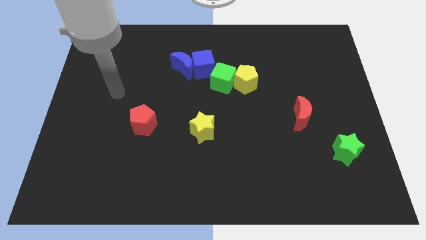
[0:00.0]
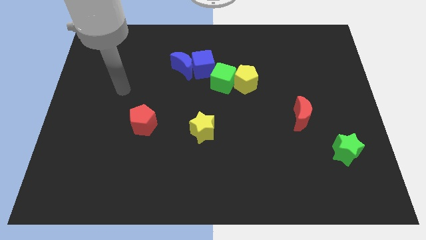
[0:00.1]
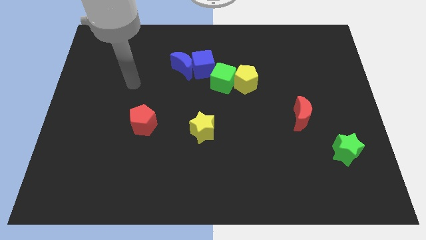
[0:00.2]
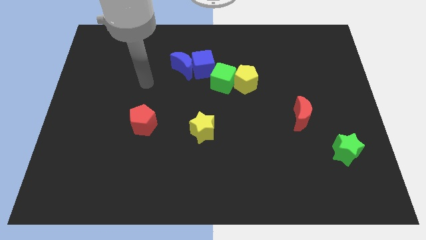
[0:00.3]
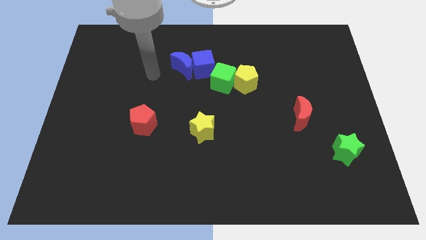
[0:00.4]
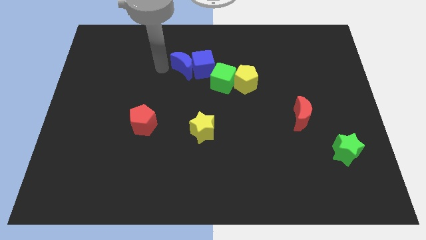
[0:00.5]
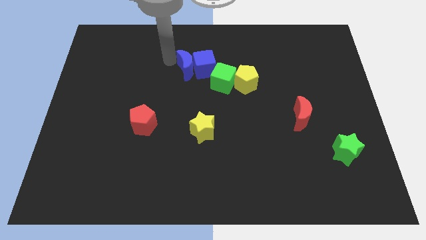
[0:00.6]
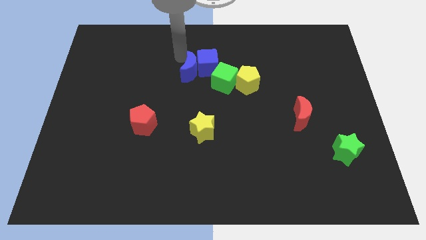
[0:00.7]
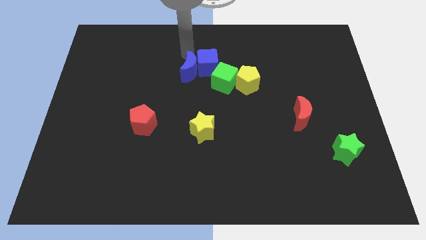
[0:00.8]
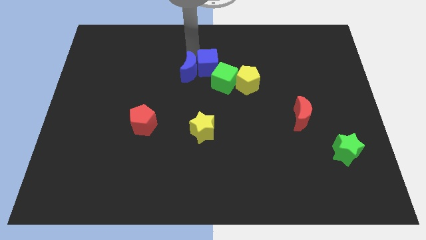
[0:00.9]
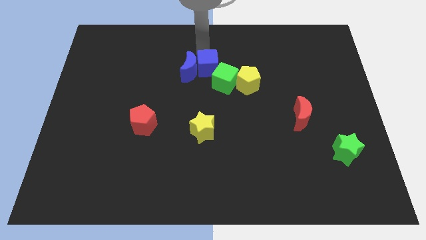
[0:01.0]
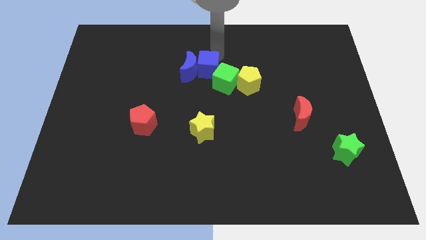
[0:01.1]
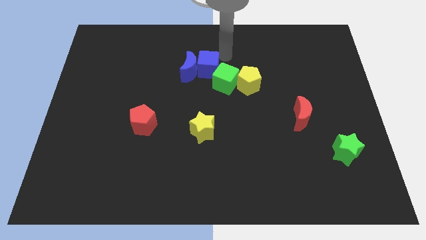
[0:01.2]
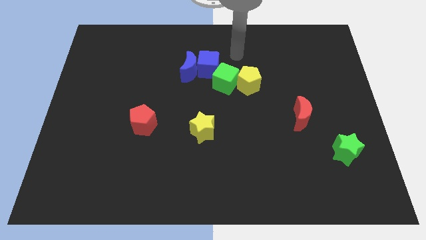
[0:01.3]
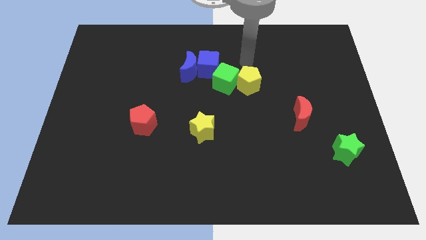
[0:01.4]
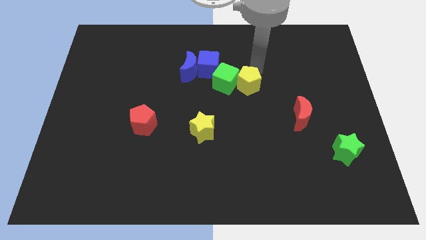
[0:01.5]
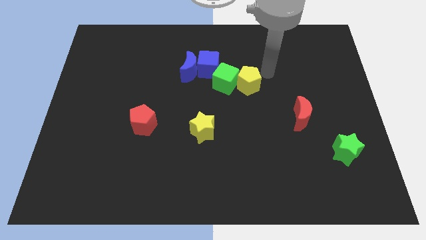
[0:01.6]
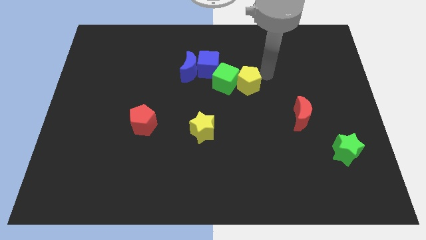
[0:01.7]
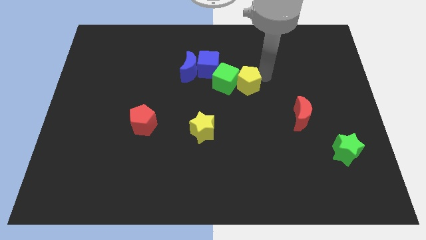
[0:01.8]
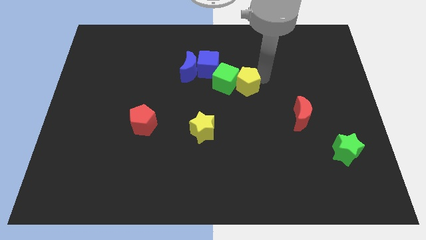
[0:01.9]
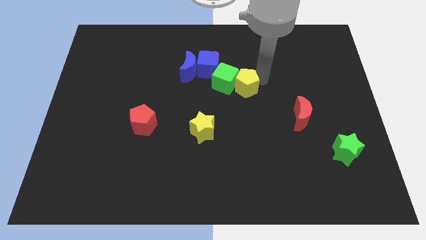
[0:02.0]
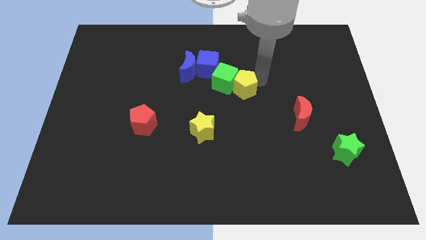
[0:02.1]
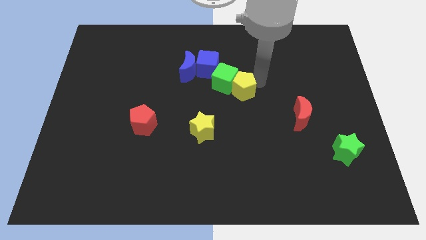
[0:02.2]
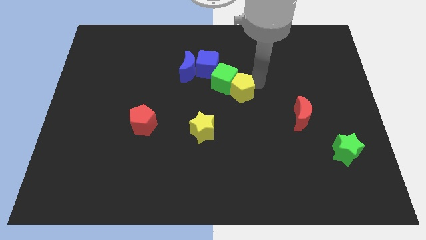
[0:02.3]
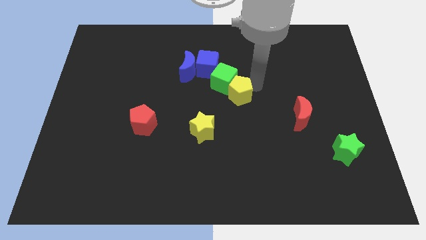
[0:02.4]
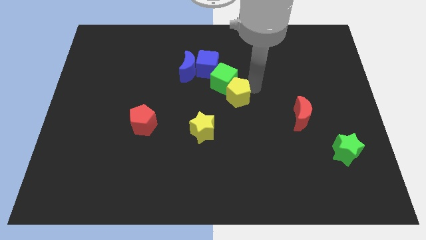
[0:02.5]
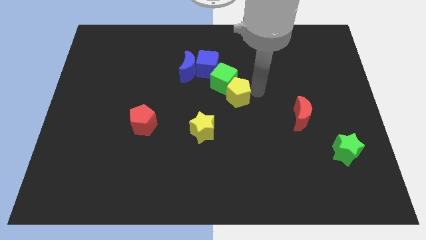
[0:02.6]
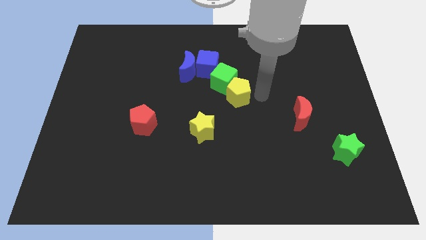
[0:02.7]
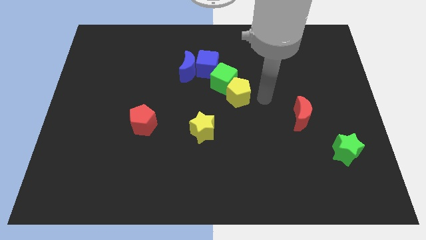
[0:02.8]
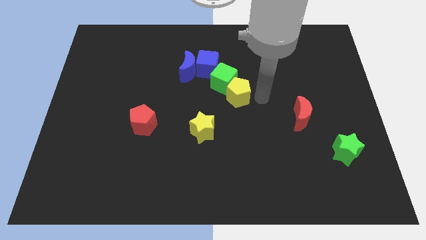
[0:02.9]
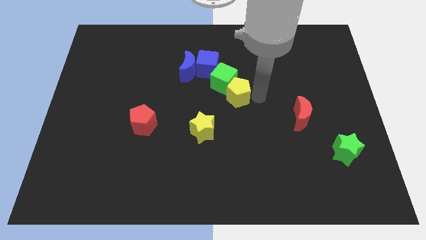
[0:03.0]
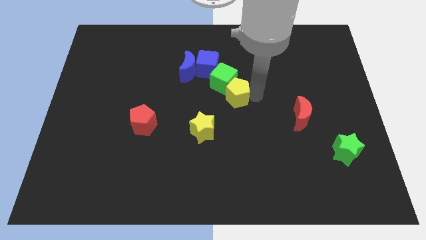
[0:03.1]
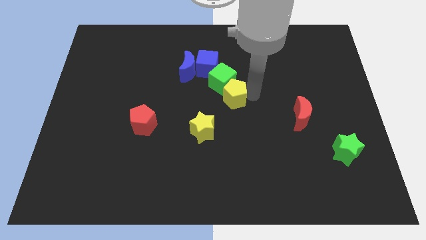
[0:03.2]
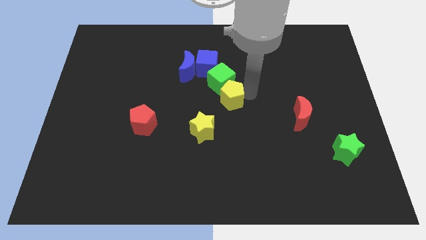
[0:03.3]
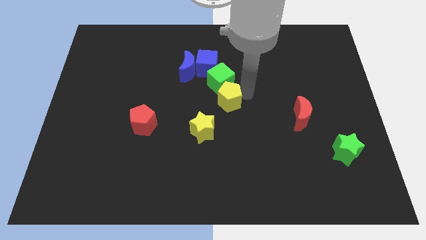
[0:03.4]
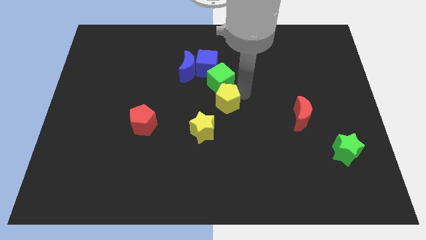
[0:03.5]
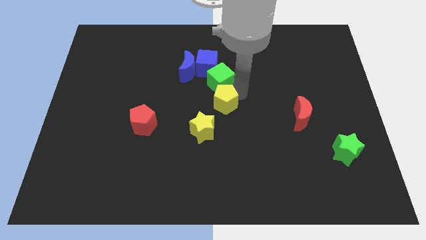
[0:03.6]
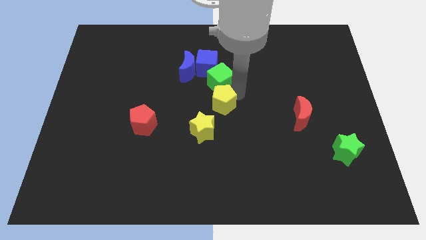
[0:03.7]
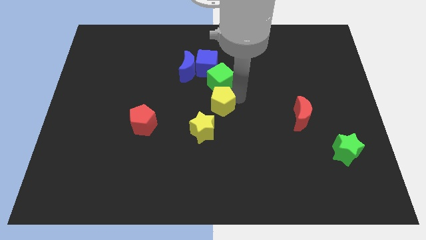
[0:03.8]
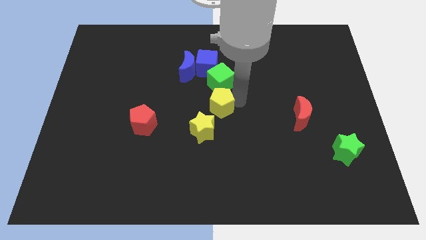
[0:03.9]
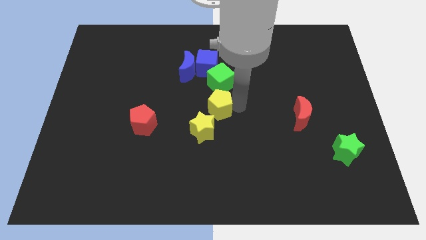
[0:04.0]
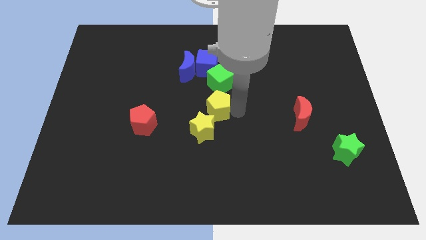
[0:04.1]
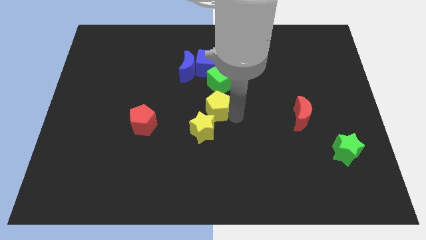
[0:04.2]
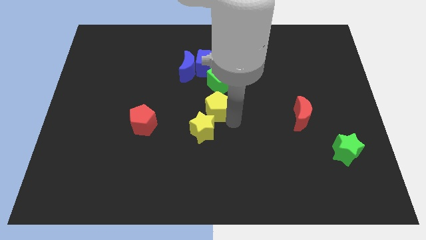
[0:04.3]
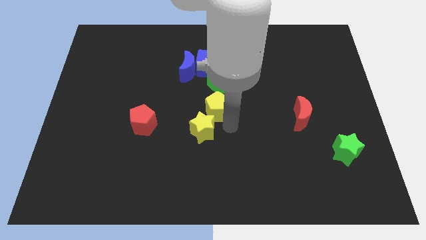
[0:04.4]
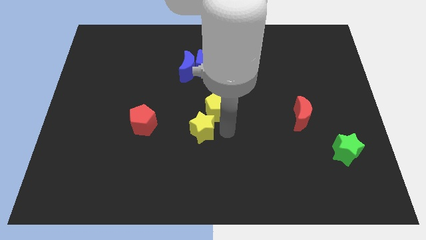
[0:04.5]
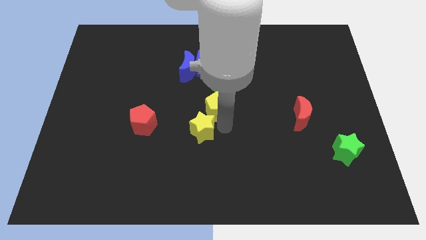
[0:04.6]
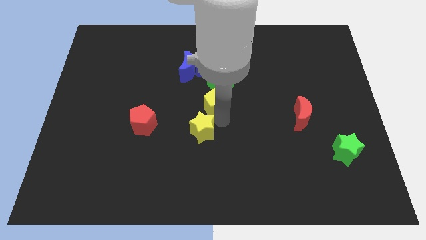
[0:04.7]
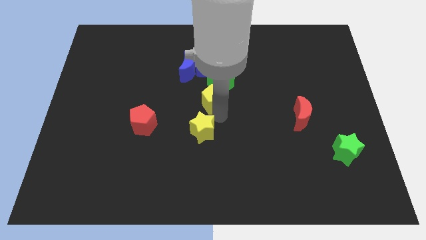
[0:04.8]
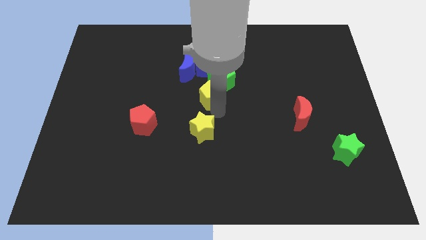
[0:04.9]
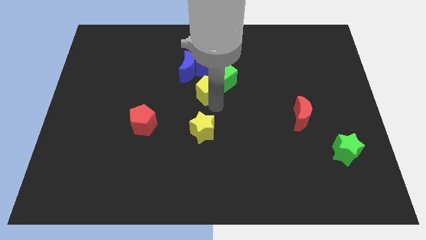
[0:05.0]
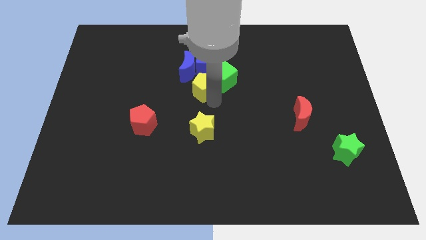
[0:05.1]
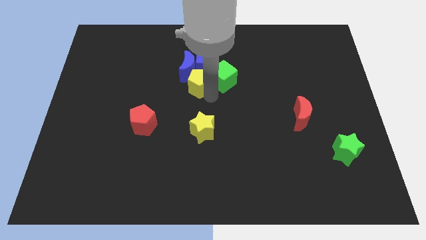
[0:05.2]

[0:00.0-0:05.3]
slide the yellow pentagon to the bottom left of the blue cube

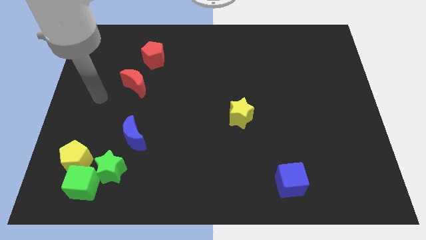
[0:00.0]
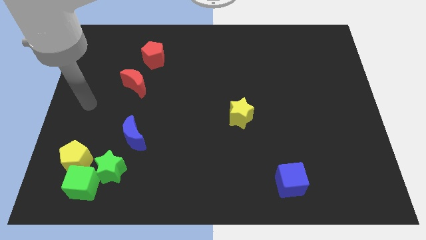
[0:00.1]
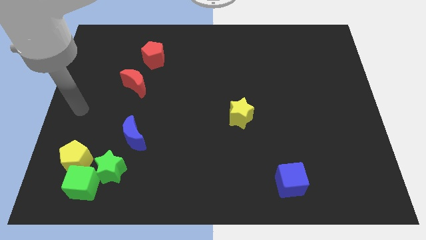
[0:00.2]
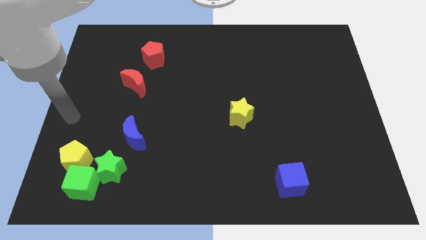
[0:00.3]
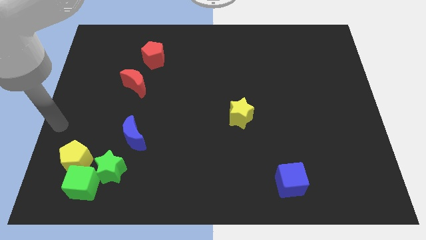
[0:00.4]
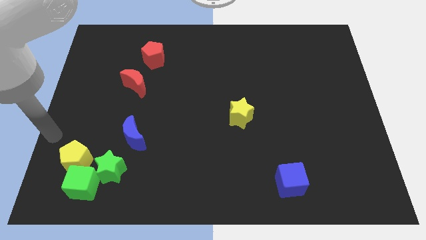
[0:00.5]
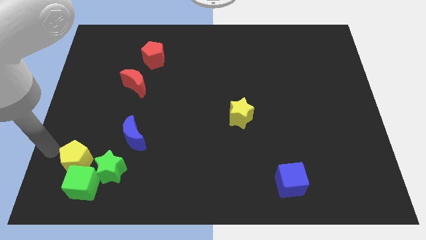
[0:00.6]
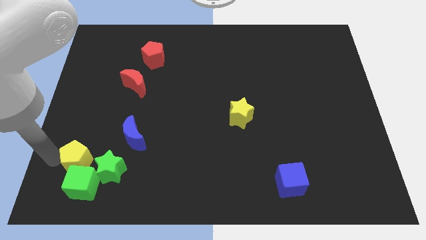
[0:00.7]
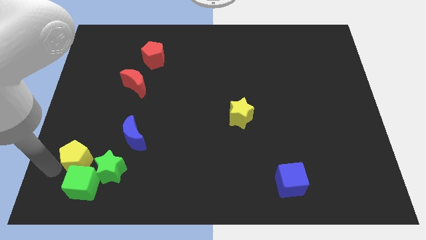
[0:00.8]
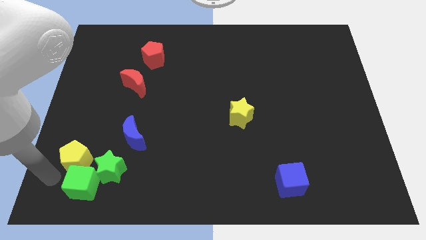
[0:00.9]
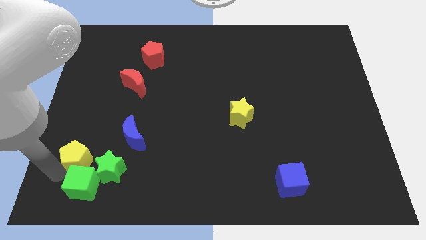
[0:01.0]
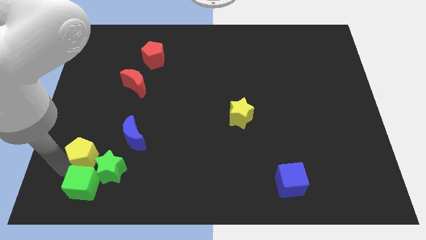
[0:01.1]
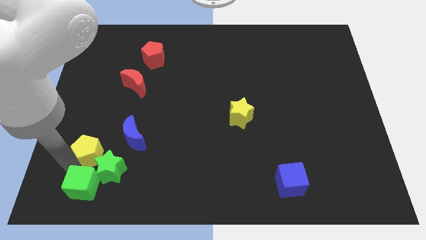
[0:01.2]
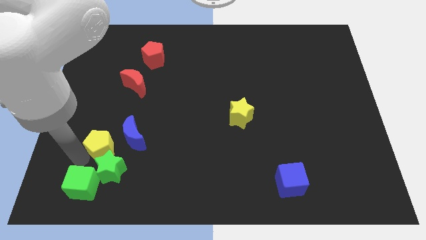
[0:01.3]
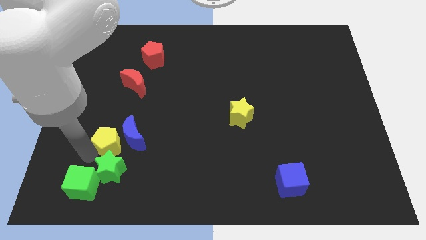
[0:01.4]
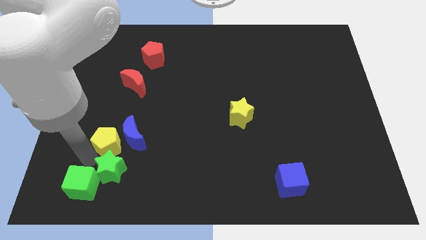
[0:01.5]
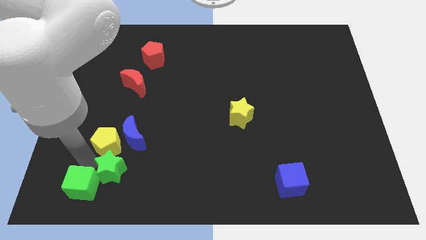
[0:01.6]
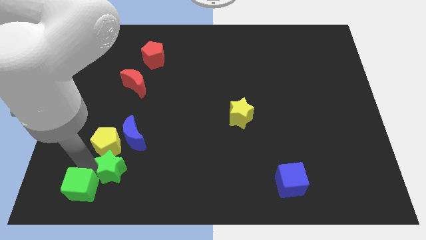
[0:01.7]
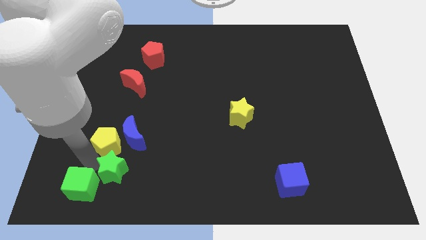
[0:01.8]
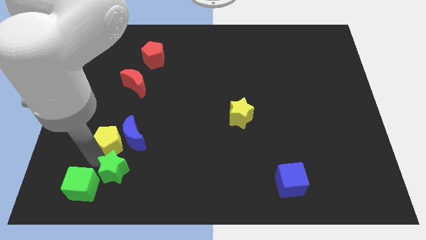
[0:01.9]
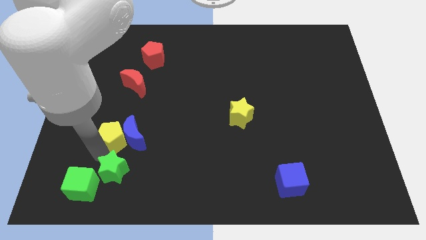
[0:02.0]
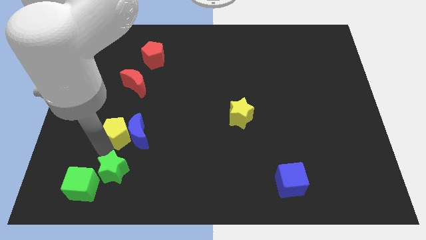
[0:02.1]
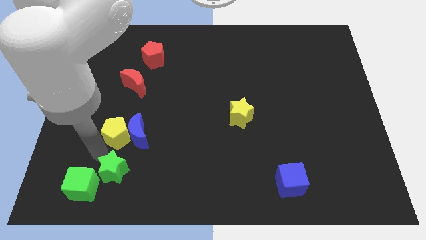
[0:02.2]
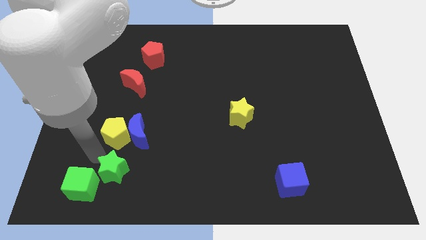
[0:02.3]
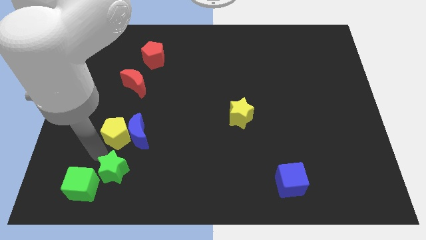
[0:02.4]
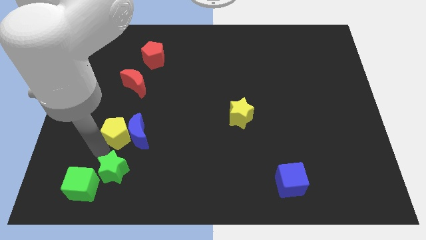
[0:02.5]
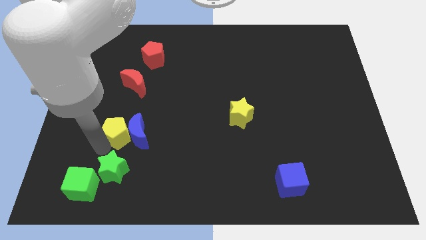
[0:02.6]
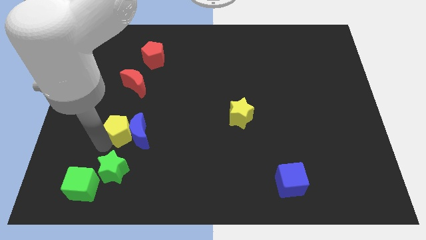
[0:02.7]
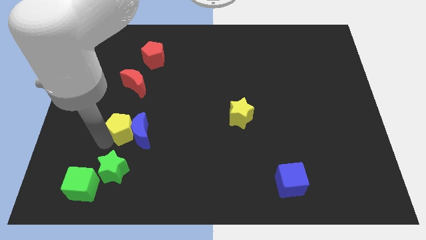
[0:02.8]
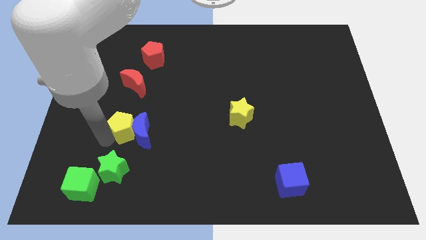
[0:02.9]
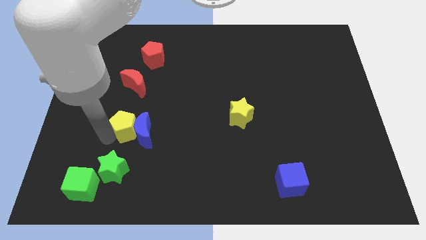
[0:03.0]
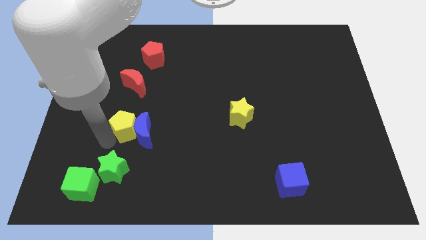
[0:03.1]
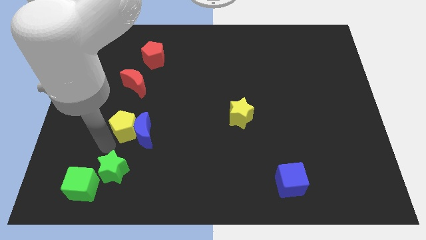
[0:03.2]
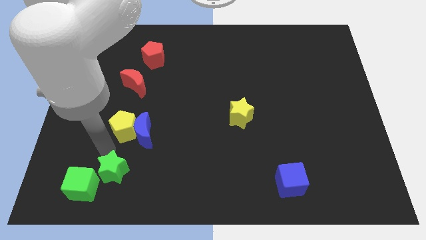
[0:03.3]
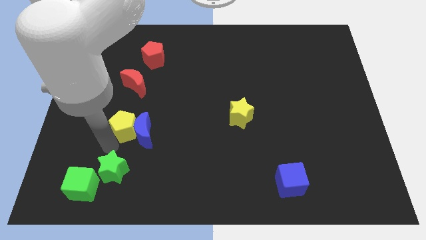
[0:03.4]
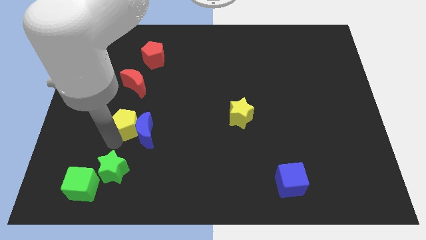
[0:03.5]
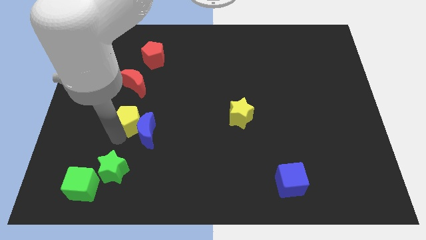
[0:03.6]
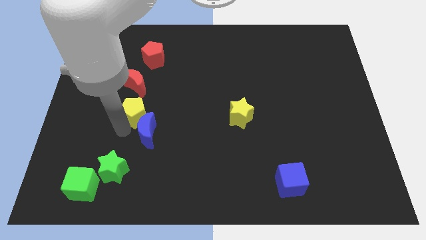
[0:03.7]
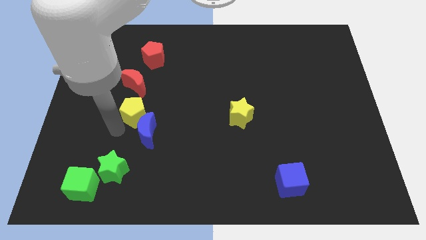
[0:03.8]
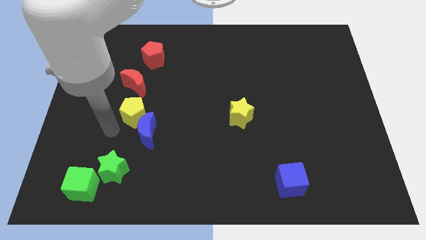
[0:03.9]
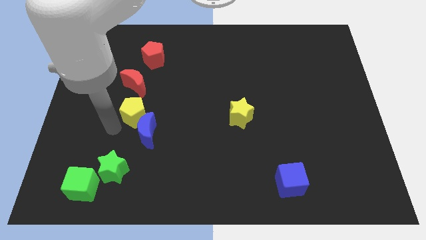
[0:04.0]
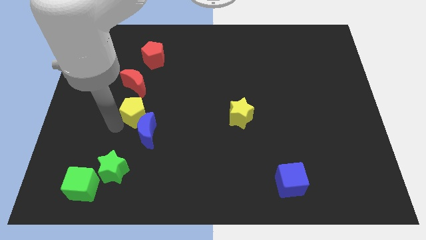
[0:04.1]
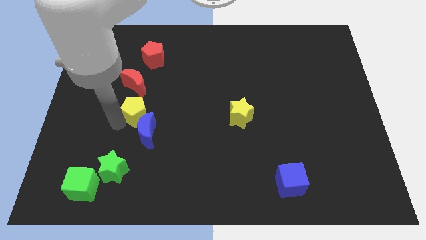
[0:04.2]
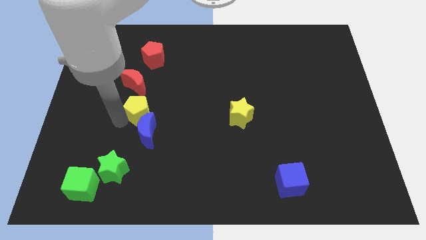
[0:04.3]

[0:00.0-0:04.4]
push the yellow pentagon to the bottom right of the red moon
